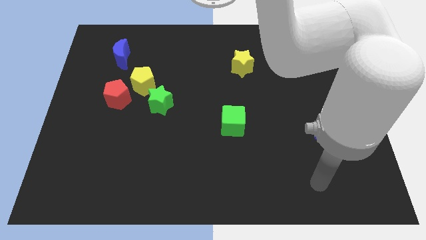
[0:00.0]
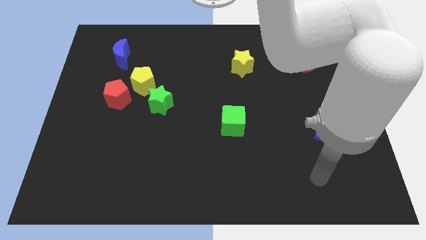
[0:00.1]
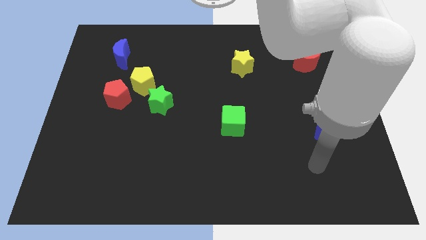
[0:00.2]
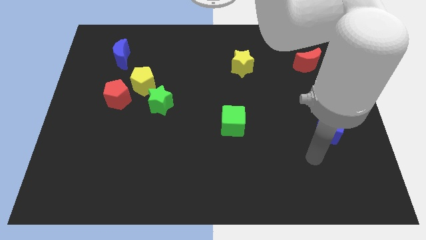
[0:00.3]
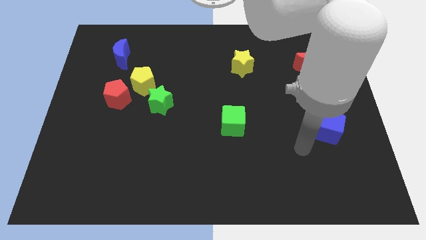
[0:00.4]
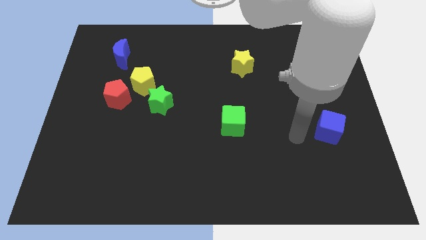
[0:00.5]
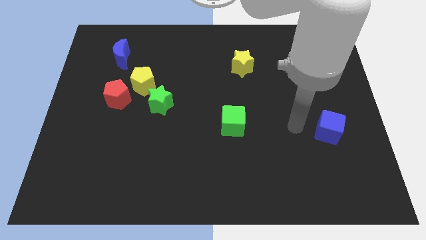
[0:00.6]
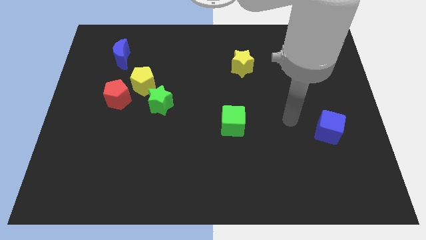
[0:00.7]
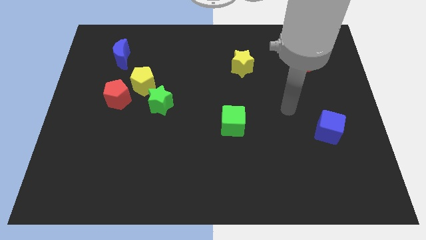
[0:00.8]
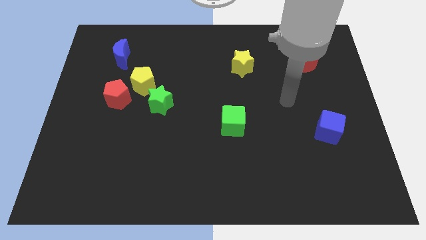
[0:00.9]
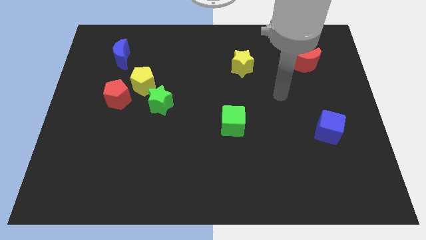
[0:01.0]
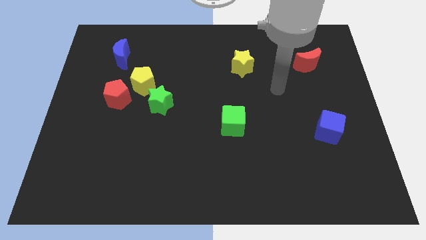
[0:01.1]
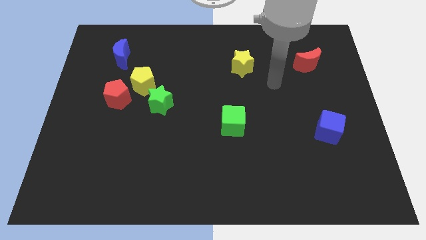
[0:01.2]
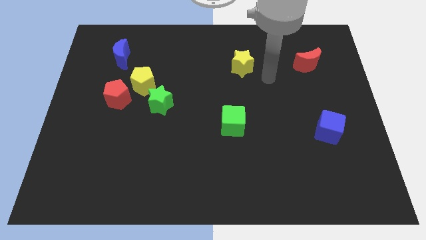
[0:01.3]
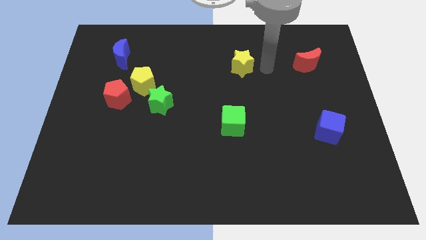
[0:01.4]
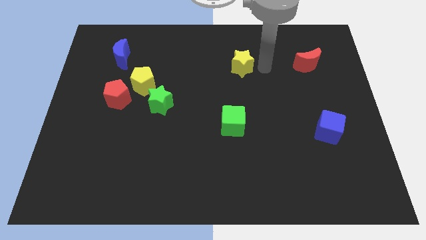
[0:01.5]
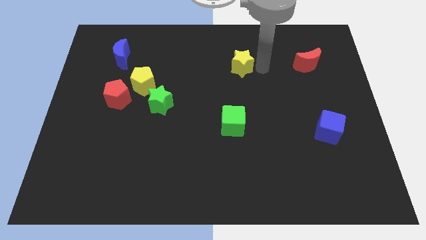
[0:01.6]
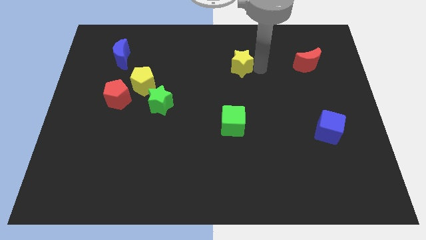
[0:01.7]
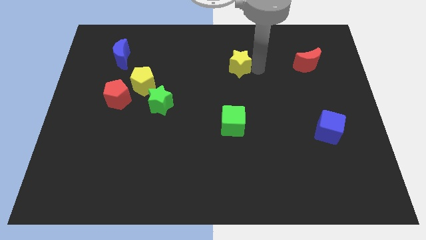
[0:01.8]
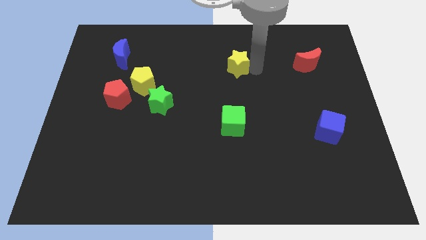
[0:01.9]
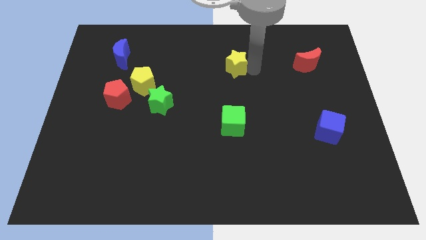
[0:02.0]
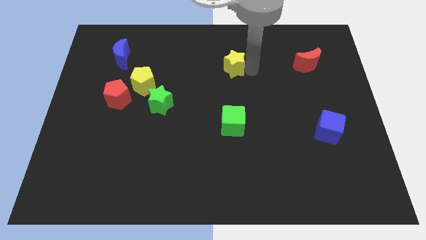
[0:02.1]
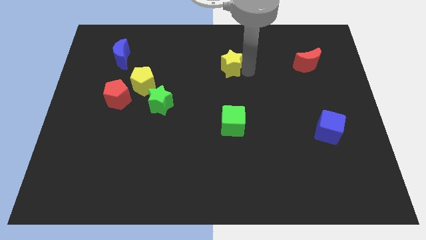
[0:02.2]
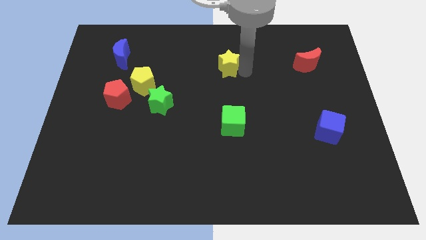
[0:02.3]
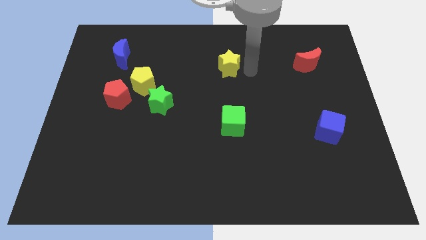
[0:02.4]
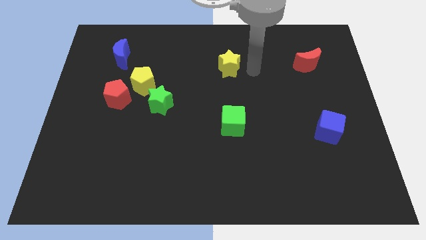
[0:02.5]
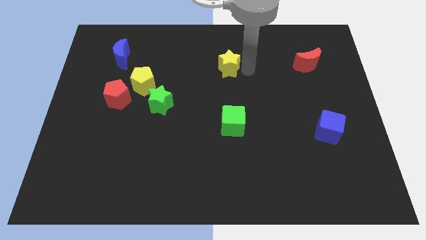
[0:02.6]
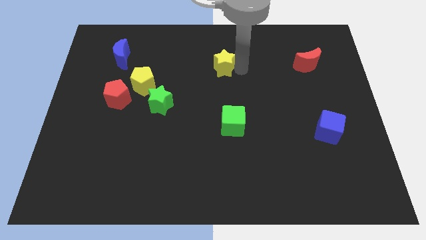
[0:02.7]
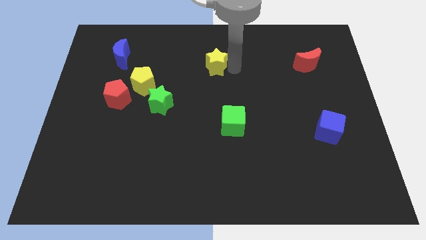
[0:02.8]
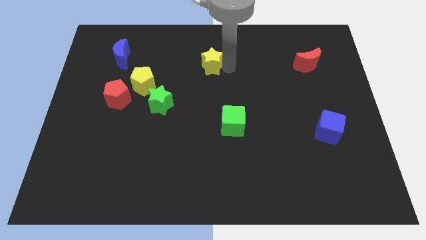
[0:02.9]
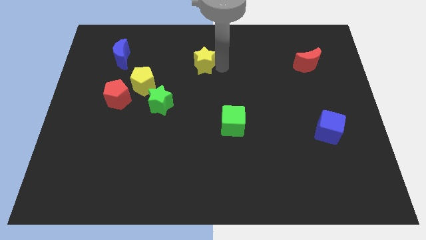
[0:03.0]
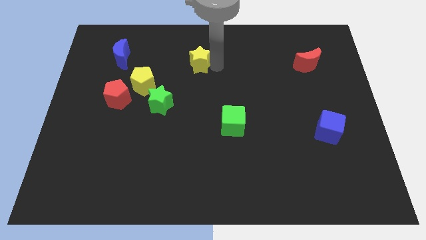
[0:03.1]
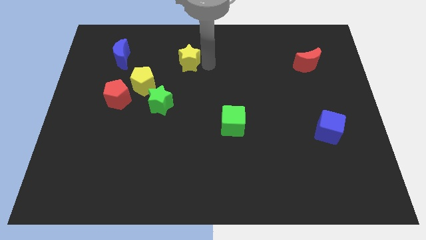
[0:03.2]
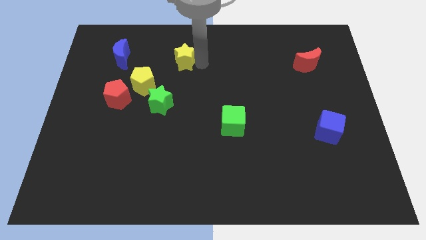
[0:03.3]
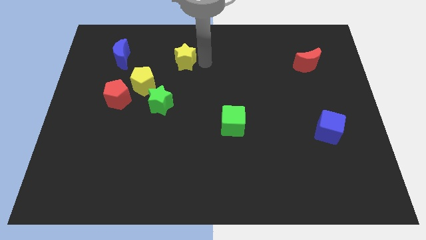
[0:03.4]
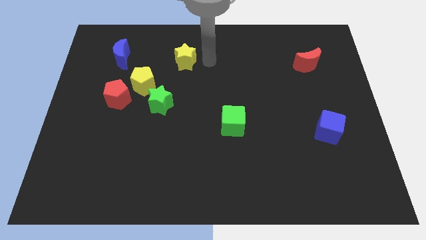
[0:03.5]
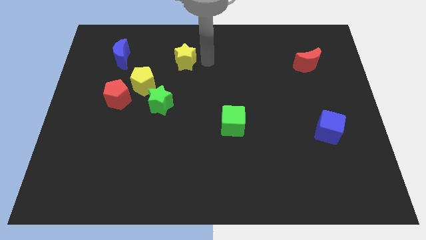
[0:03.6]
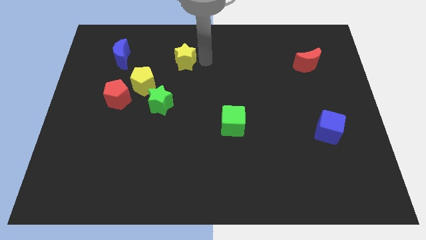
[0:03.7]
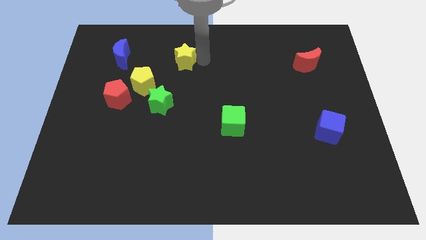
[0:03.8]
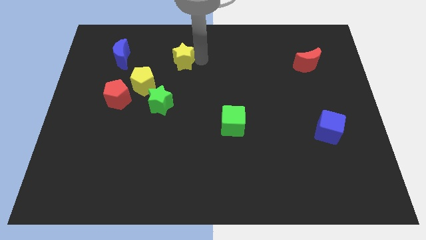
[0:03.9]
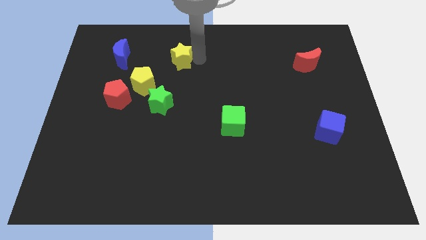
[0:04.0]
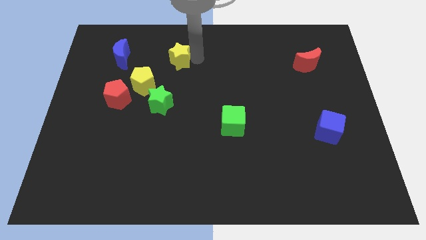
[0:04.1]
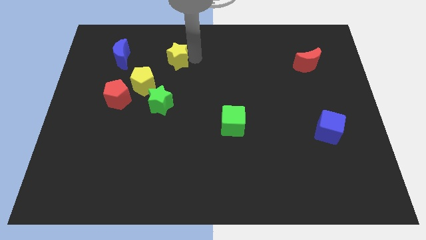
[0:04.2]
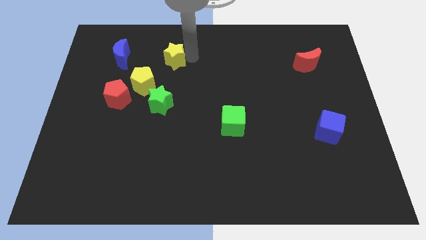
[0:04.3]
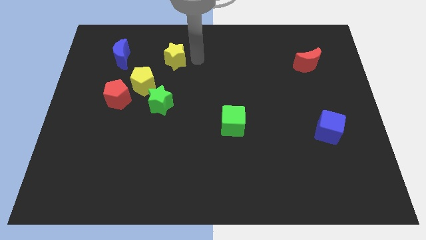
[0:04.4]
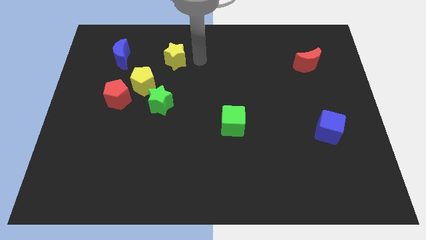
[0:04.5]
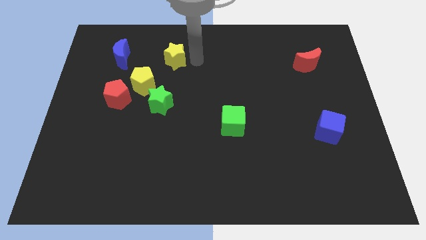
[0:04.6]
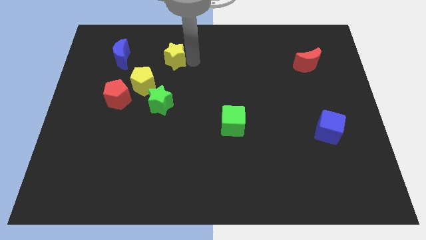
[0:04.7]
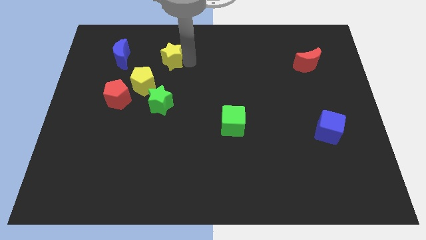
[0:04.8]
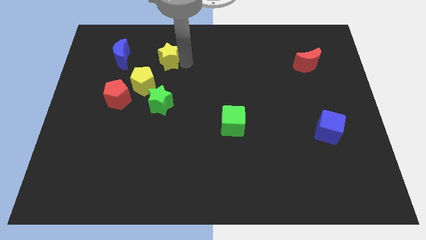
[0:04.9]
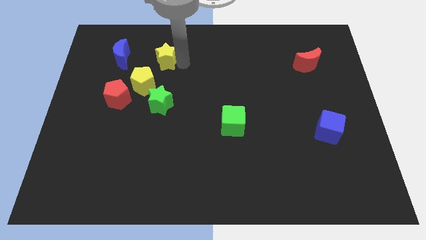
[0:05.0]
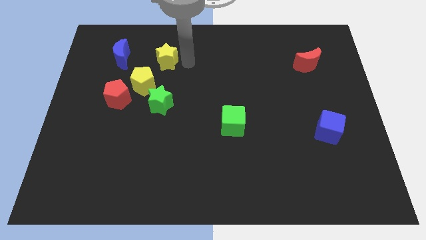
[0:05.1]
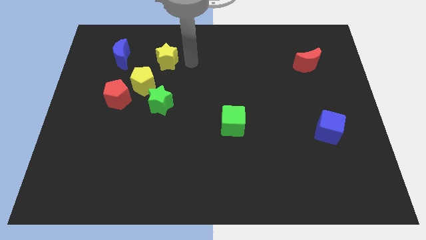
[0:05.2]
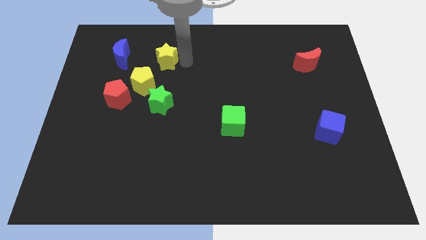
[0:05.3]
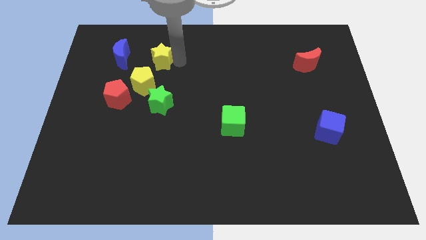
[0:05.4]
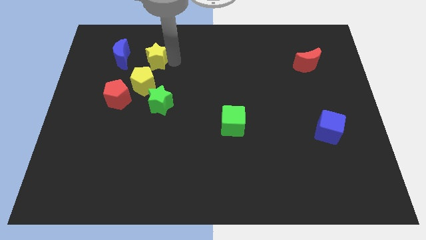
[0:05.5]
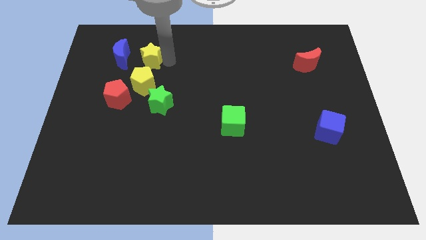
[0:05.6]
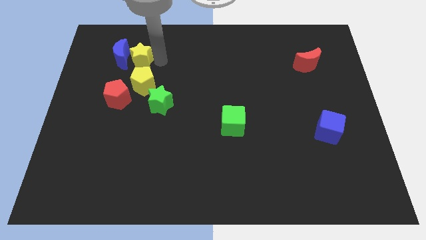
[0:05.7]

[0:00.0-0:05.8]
put the yellow star towards the blue moon

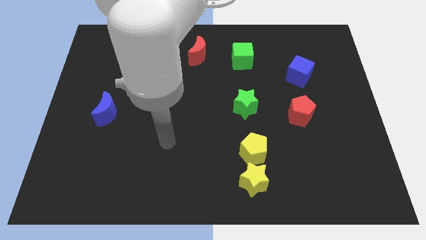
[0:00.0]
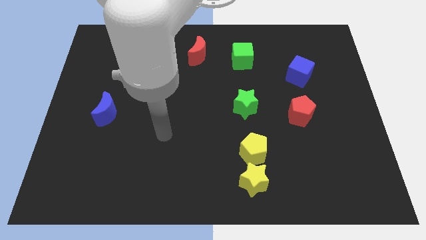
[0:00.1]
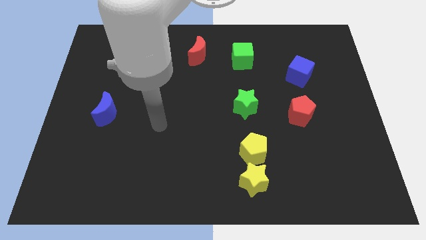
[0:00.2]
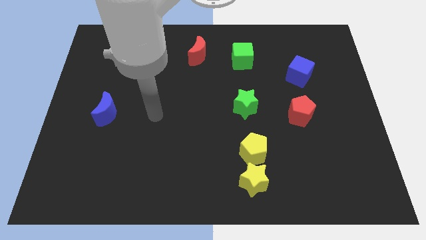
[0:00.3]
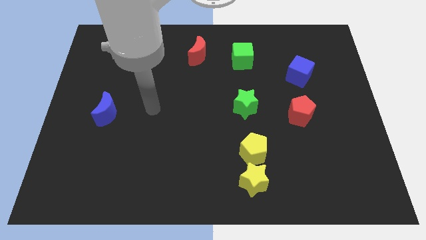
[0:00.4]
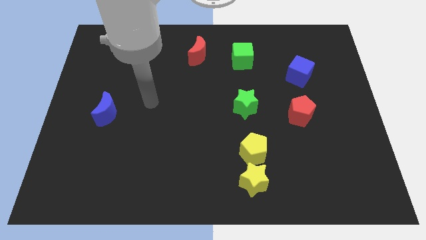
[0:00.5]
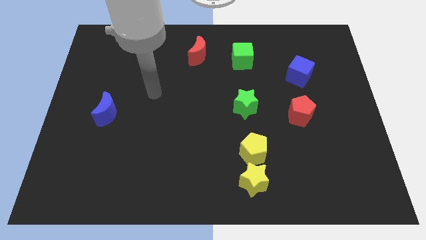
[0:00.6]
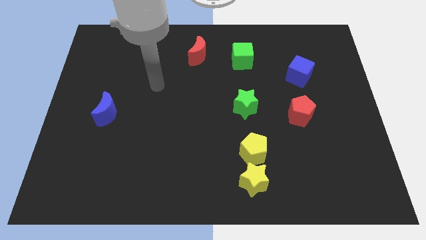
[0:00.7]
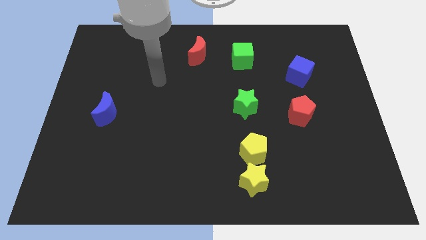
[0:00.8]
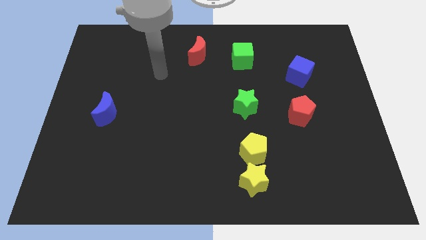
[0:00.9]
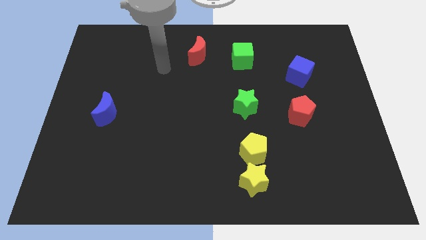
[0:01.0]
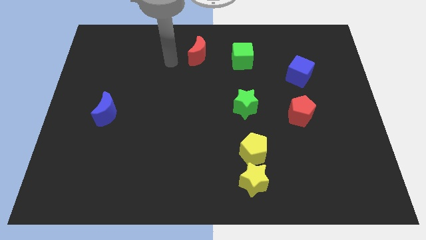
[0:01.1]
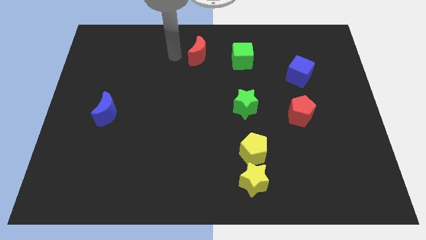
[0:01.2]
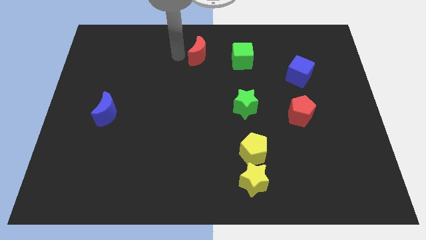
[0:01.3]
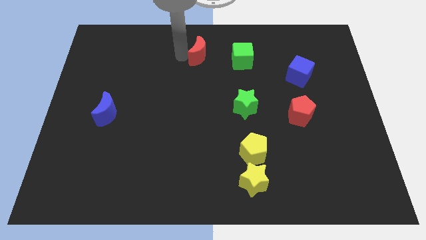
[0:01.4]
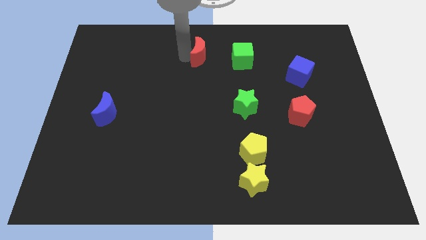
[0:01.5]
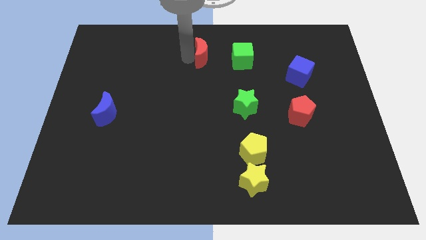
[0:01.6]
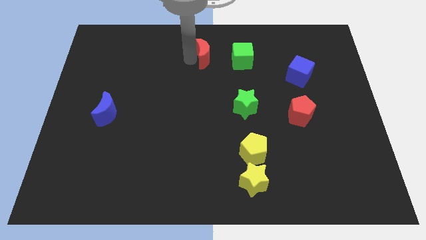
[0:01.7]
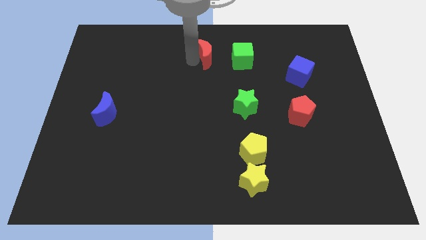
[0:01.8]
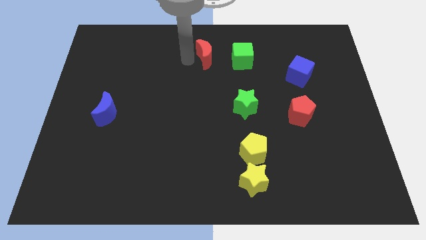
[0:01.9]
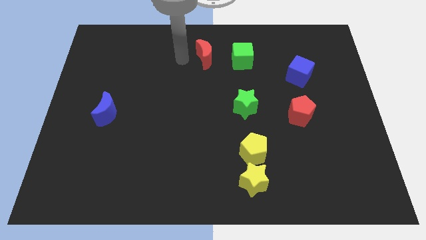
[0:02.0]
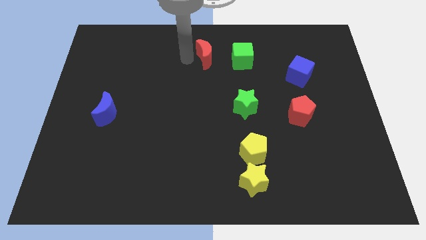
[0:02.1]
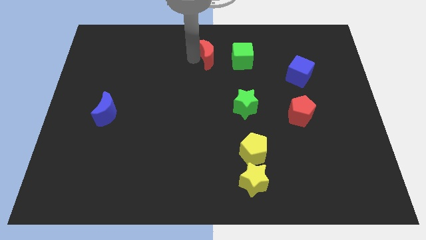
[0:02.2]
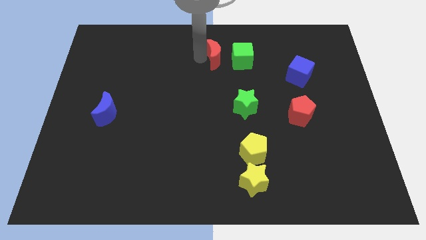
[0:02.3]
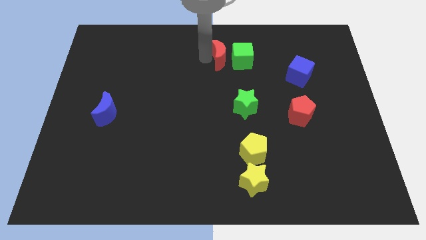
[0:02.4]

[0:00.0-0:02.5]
push the red moon next to the green cube
